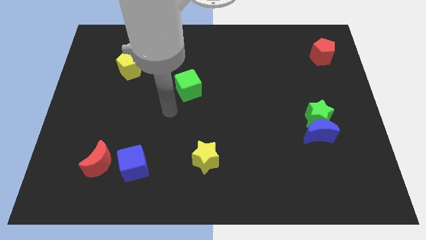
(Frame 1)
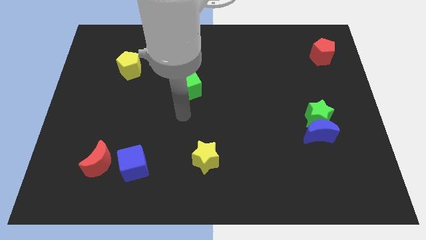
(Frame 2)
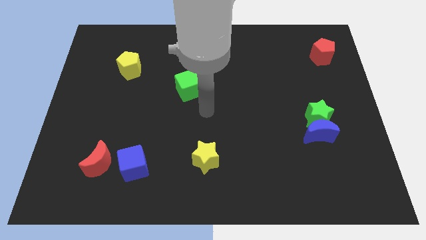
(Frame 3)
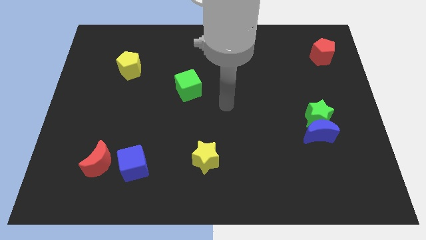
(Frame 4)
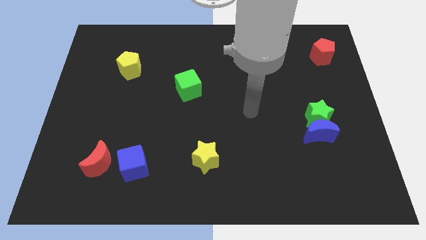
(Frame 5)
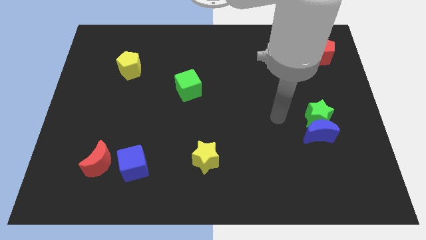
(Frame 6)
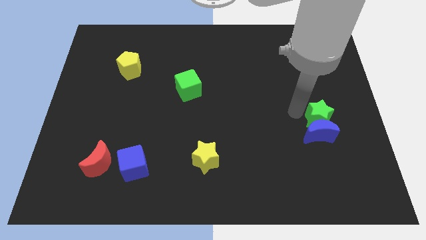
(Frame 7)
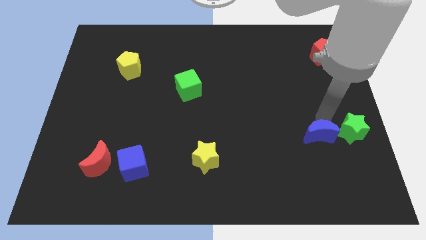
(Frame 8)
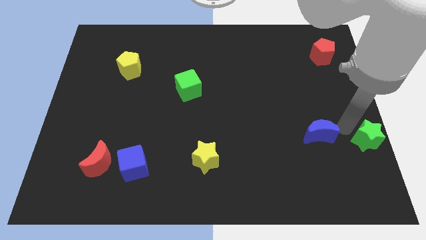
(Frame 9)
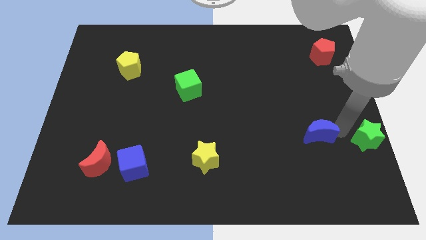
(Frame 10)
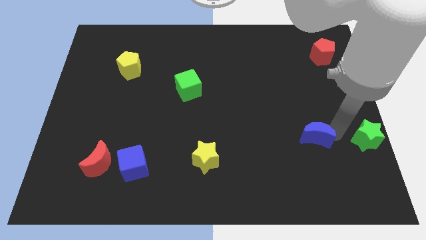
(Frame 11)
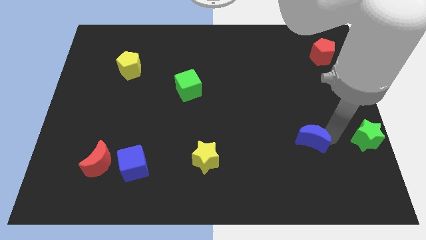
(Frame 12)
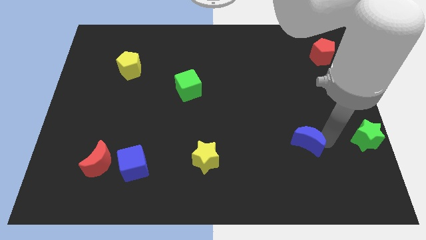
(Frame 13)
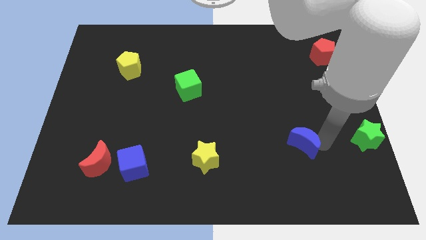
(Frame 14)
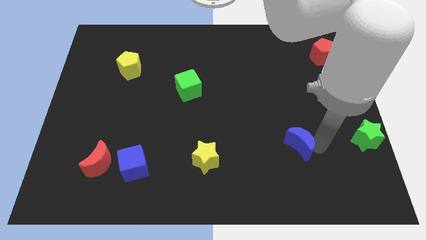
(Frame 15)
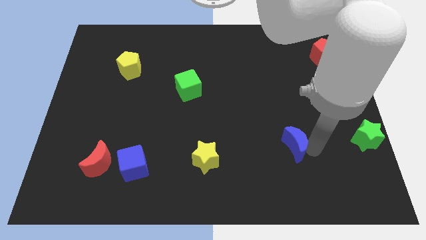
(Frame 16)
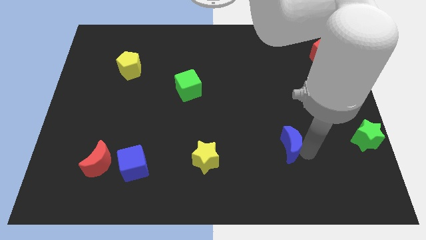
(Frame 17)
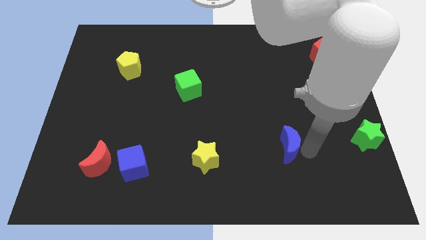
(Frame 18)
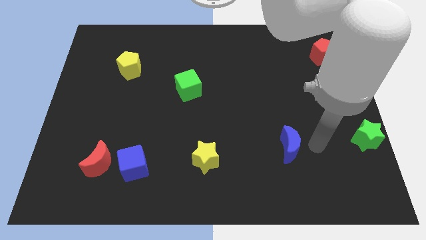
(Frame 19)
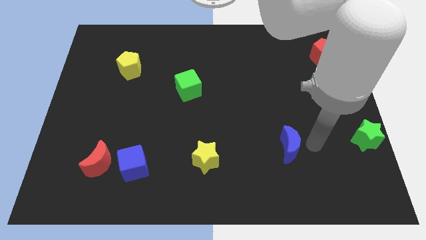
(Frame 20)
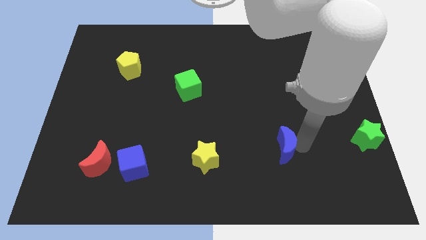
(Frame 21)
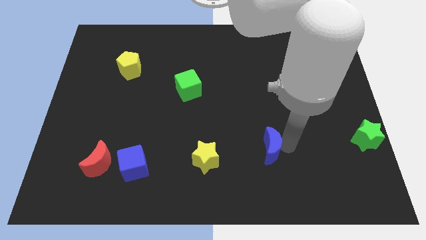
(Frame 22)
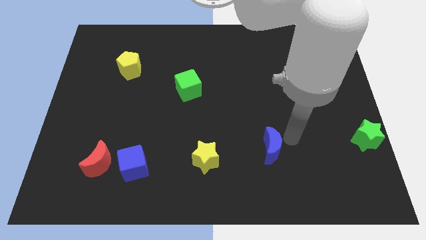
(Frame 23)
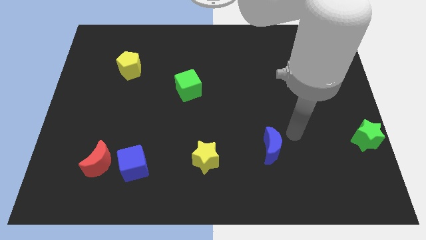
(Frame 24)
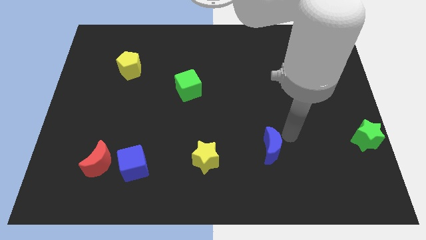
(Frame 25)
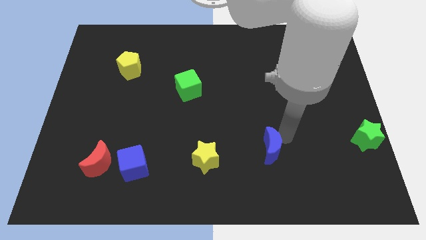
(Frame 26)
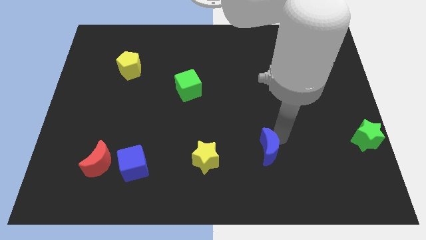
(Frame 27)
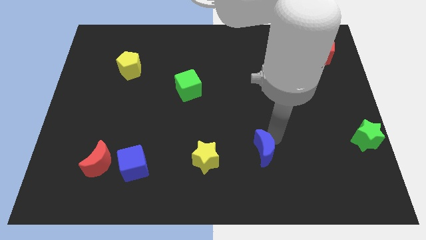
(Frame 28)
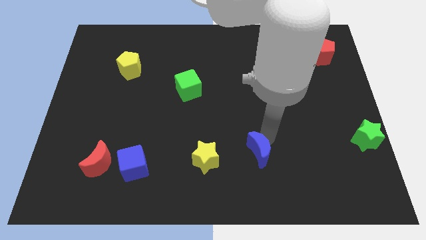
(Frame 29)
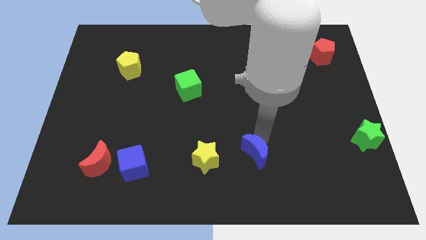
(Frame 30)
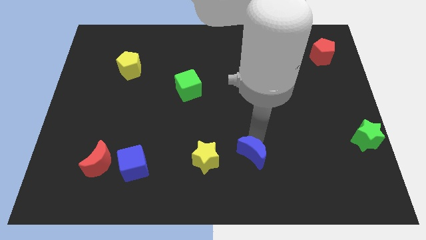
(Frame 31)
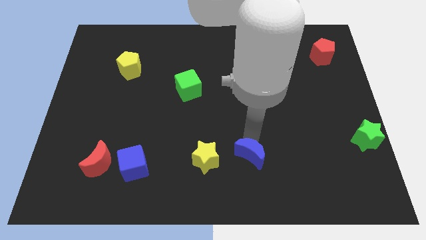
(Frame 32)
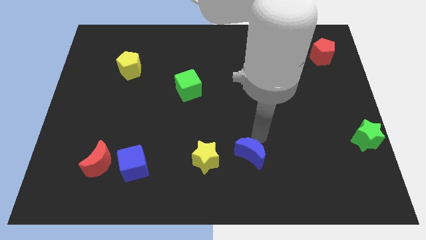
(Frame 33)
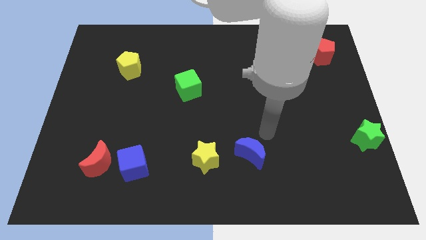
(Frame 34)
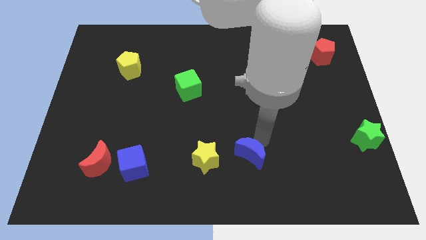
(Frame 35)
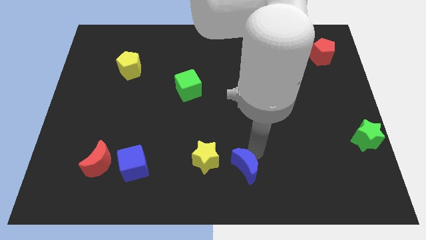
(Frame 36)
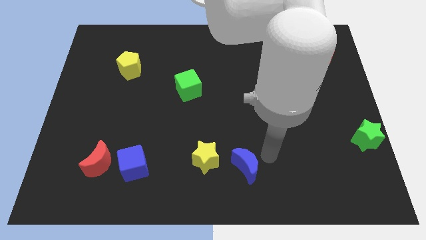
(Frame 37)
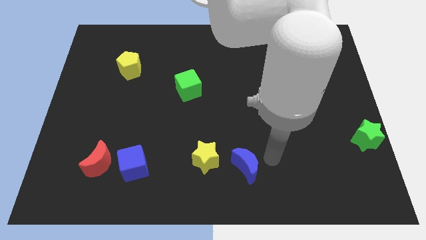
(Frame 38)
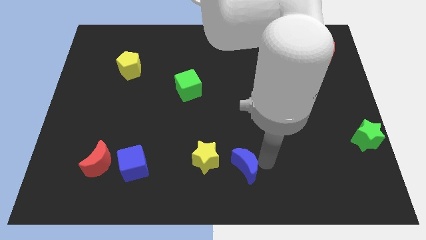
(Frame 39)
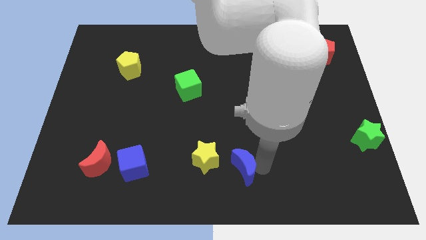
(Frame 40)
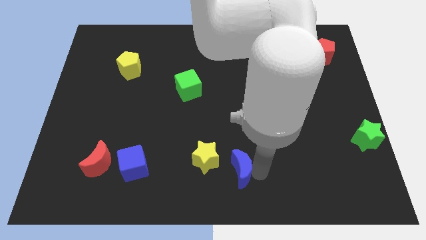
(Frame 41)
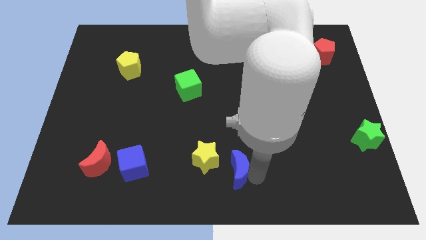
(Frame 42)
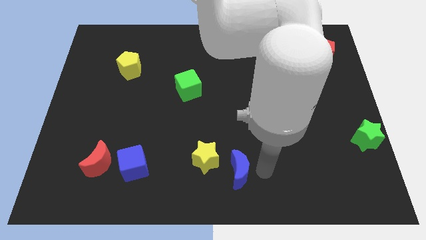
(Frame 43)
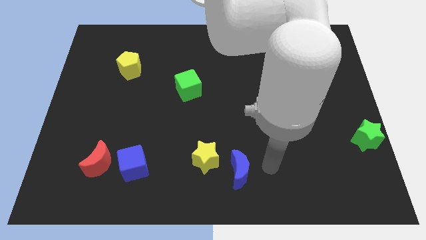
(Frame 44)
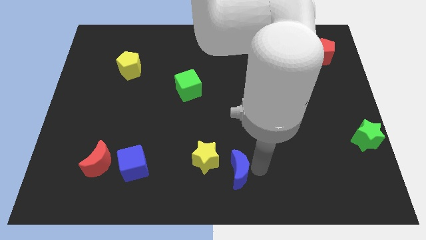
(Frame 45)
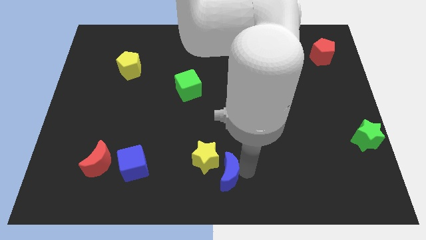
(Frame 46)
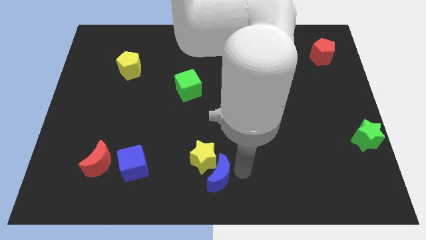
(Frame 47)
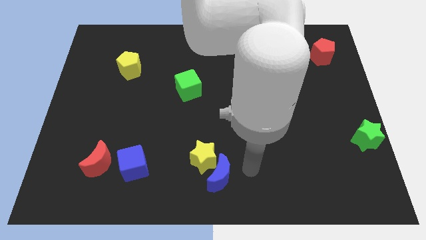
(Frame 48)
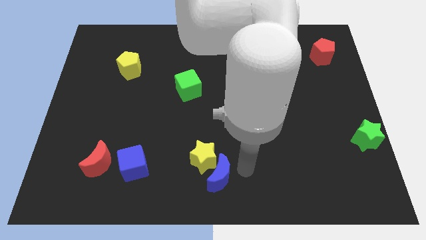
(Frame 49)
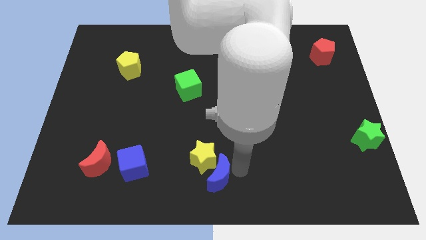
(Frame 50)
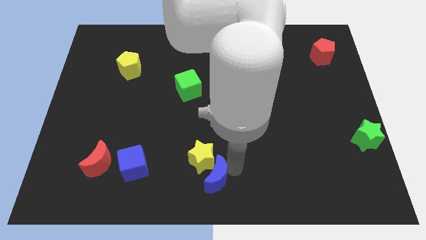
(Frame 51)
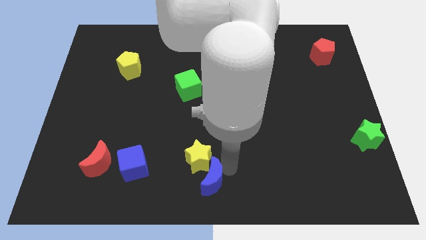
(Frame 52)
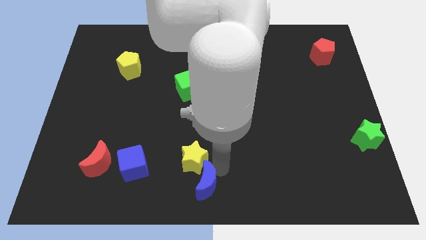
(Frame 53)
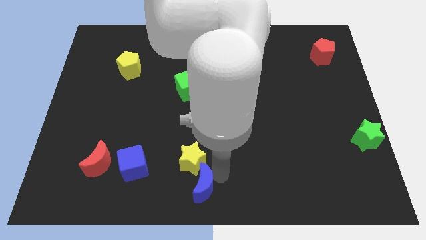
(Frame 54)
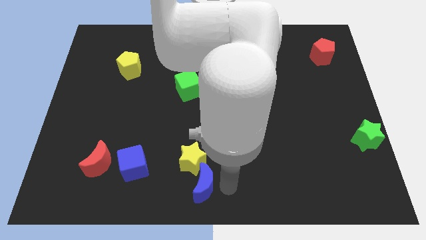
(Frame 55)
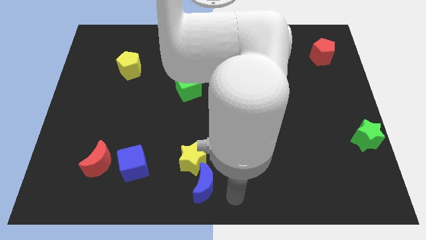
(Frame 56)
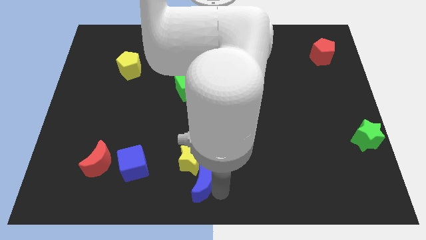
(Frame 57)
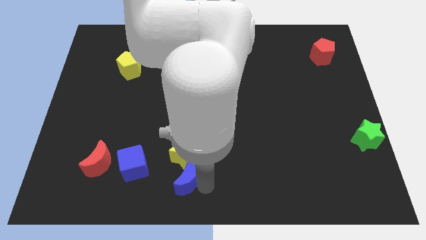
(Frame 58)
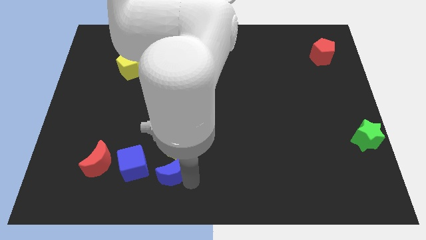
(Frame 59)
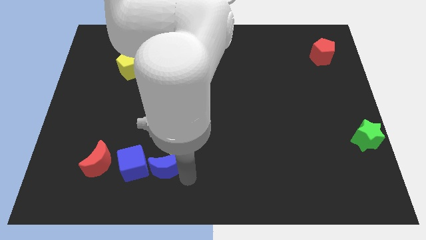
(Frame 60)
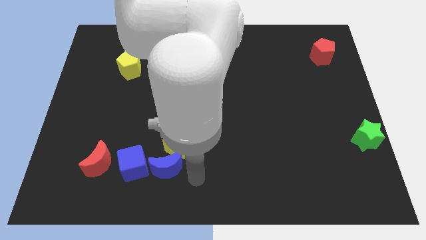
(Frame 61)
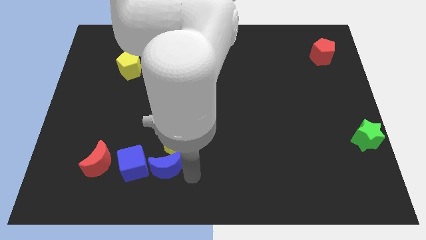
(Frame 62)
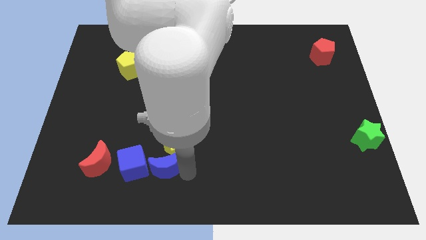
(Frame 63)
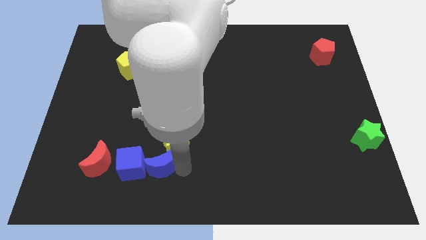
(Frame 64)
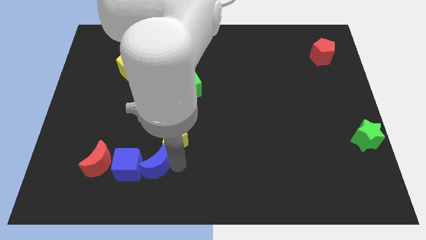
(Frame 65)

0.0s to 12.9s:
slide the blue moon to the blue cube

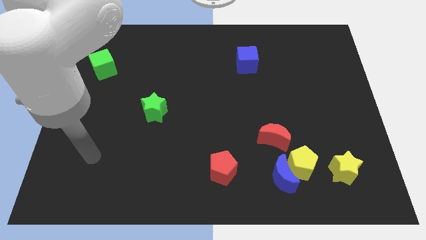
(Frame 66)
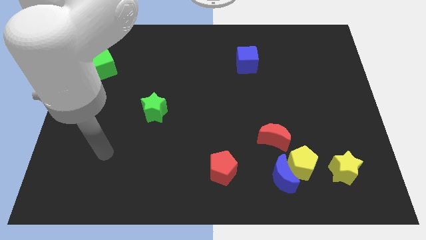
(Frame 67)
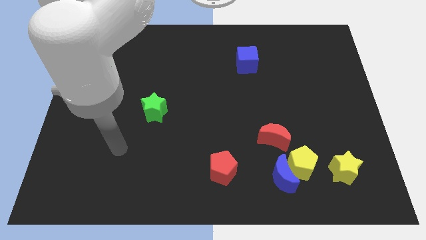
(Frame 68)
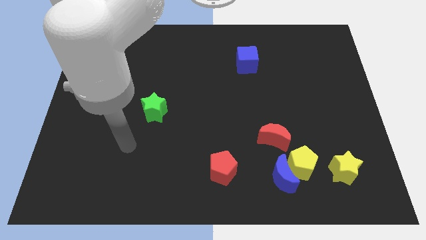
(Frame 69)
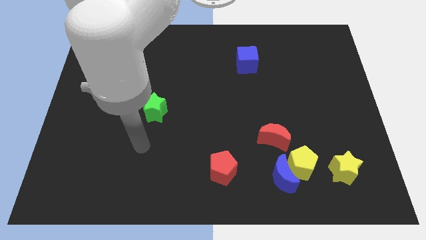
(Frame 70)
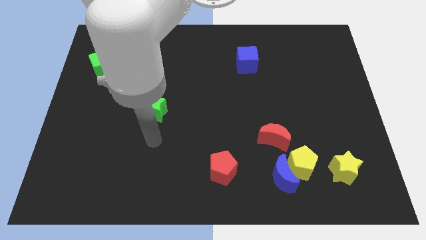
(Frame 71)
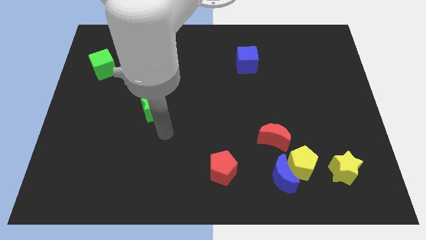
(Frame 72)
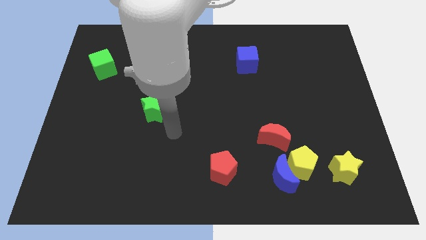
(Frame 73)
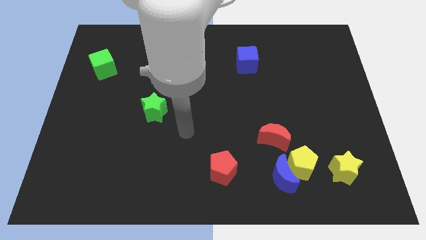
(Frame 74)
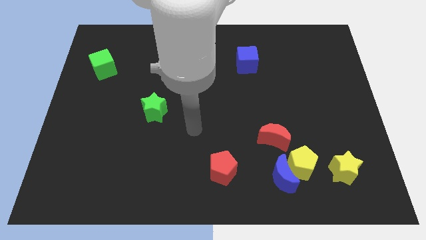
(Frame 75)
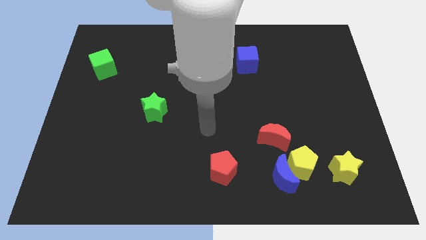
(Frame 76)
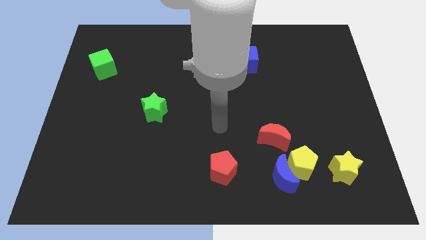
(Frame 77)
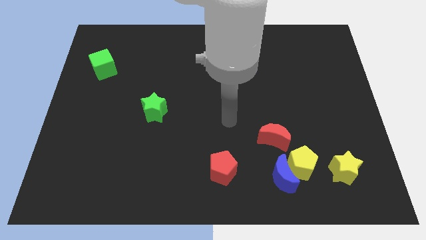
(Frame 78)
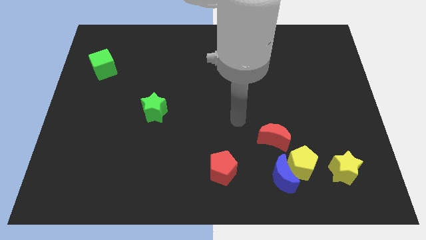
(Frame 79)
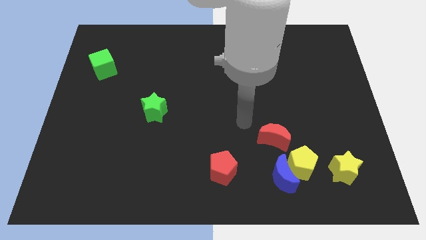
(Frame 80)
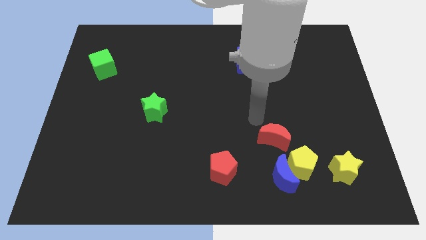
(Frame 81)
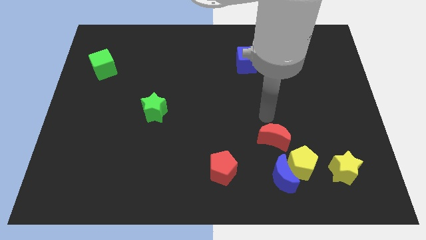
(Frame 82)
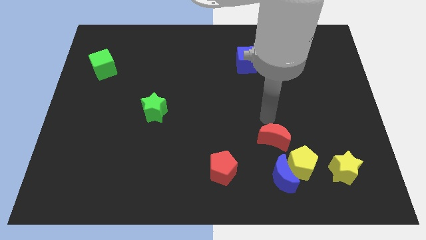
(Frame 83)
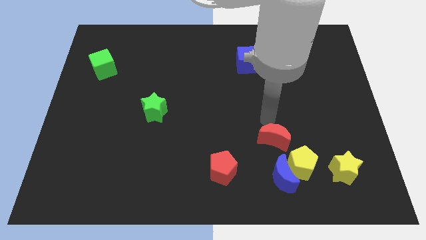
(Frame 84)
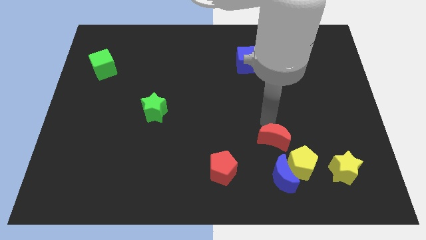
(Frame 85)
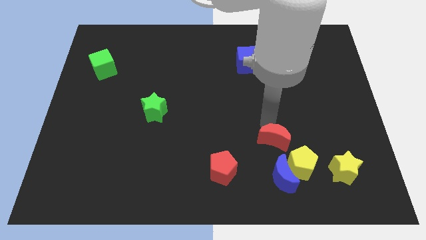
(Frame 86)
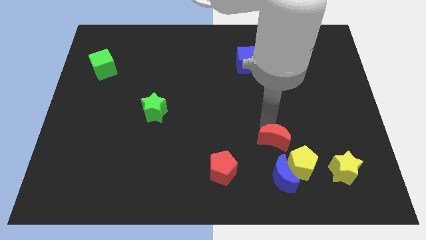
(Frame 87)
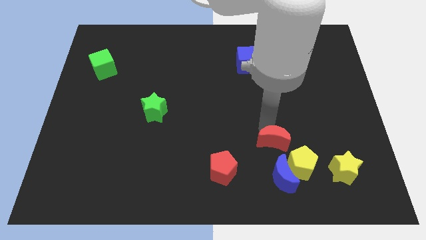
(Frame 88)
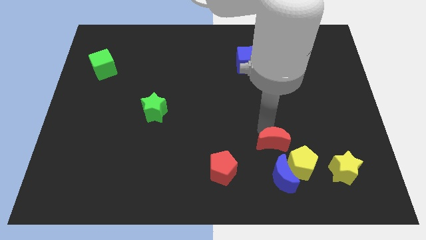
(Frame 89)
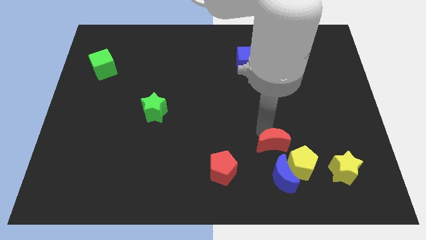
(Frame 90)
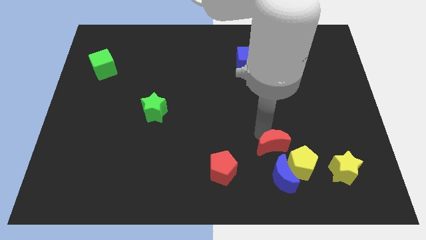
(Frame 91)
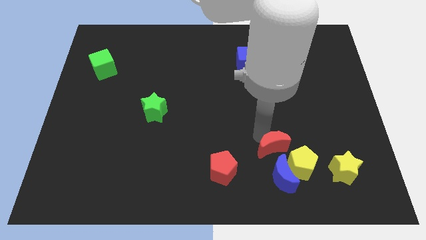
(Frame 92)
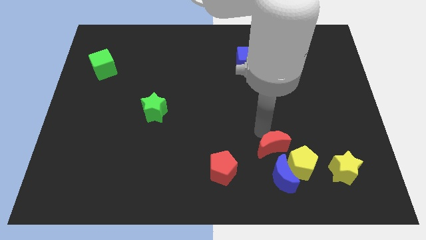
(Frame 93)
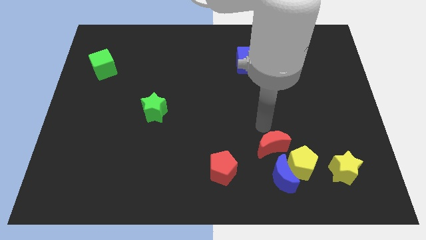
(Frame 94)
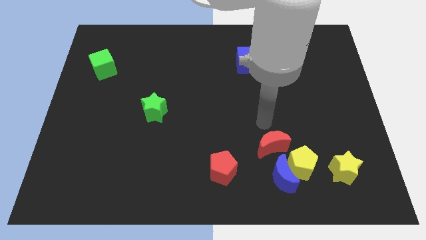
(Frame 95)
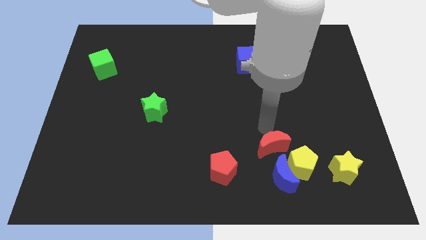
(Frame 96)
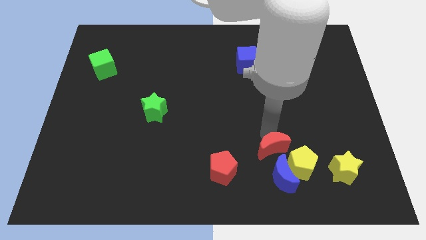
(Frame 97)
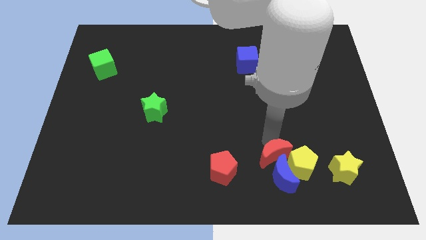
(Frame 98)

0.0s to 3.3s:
put the red moon towards the blue moon
